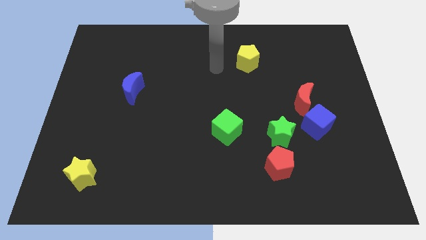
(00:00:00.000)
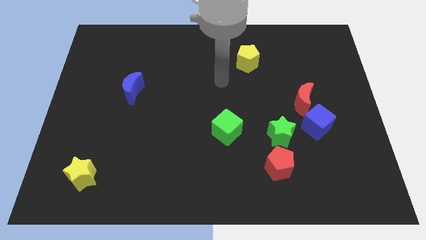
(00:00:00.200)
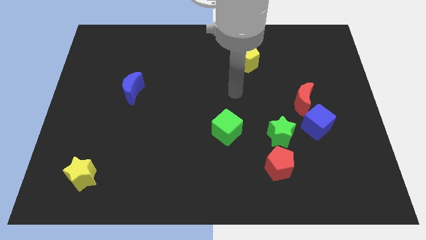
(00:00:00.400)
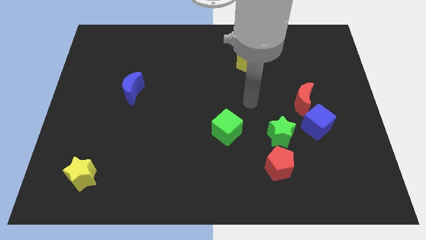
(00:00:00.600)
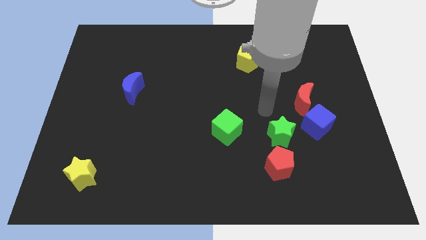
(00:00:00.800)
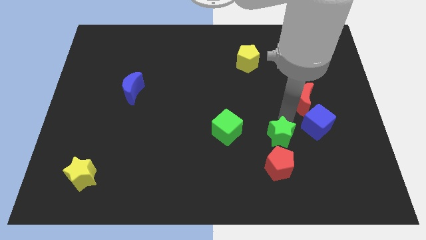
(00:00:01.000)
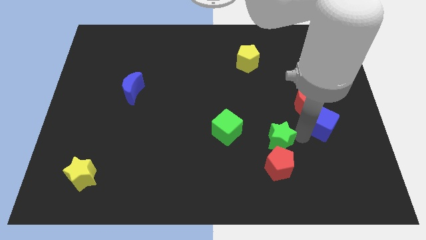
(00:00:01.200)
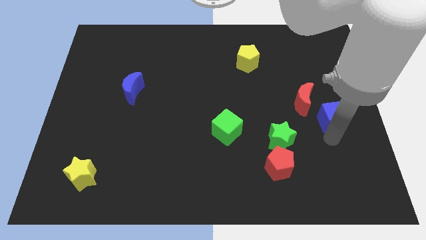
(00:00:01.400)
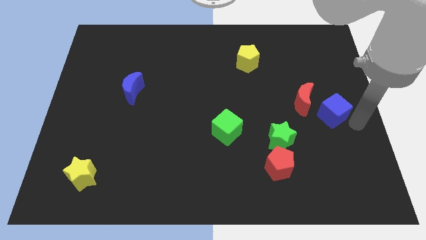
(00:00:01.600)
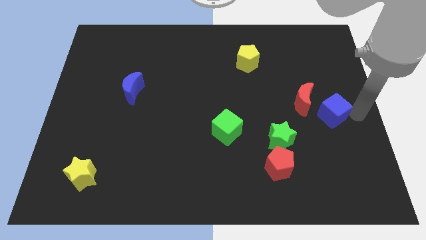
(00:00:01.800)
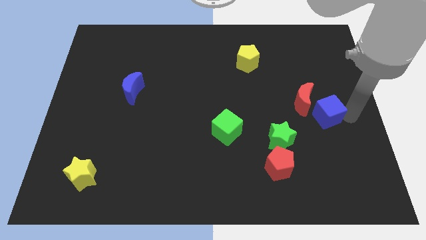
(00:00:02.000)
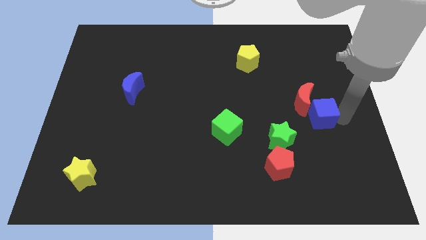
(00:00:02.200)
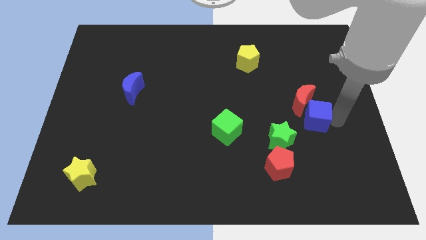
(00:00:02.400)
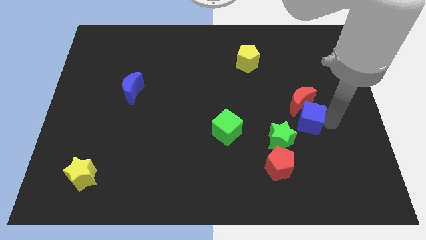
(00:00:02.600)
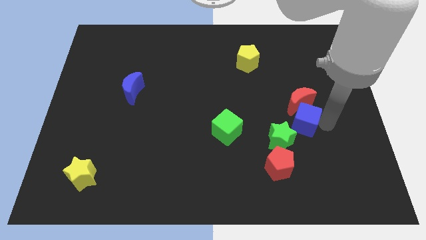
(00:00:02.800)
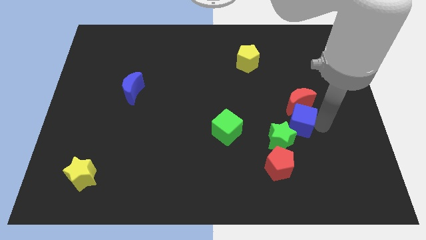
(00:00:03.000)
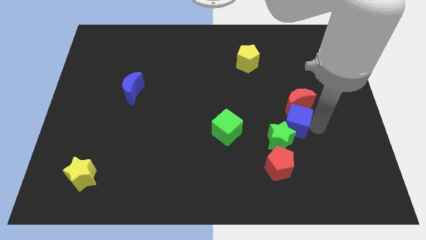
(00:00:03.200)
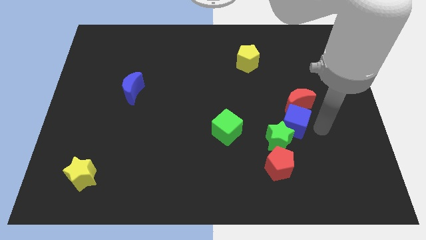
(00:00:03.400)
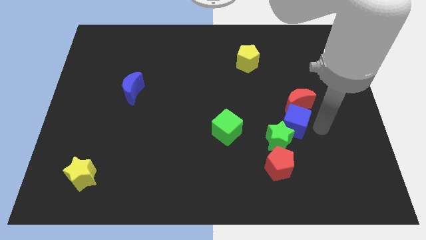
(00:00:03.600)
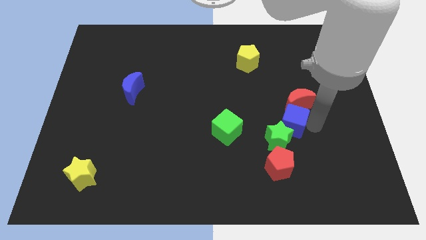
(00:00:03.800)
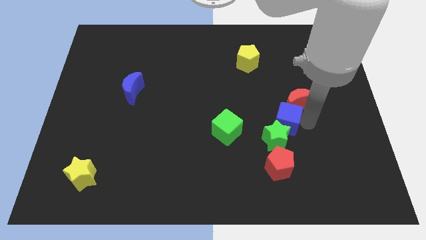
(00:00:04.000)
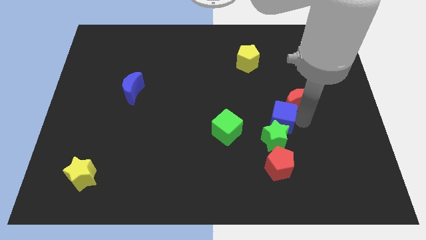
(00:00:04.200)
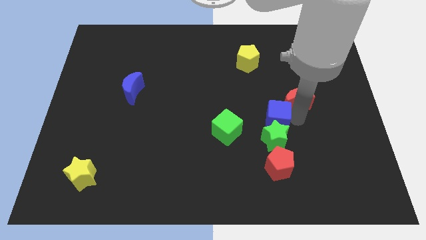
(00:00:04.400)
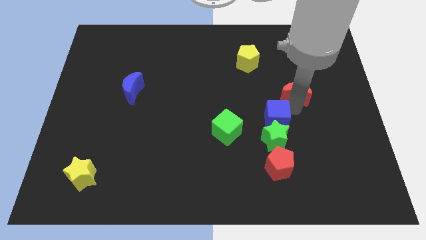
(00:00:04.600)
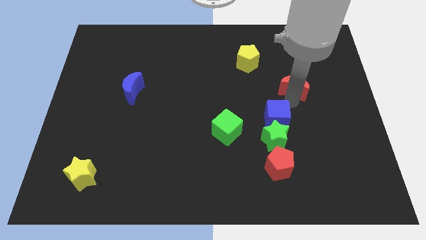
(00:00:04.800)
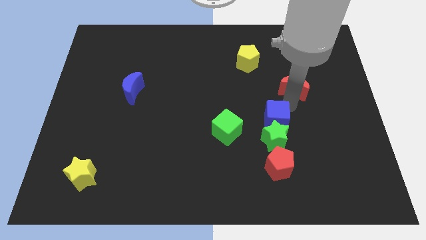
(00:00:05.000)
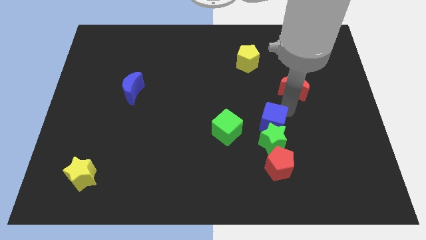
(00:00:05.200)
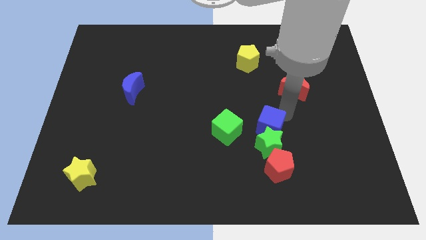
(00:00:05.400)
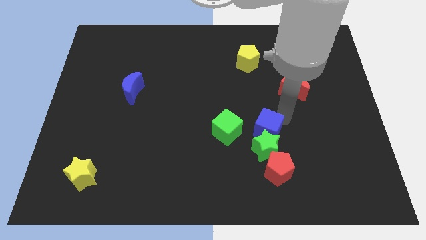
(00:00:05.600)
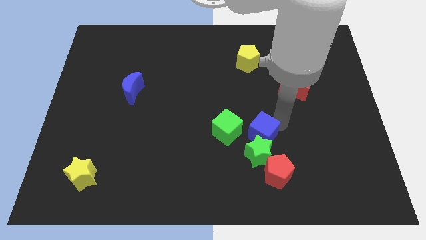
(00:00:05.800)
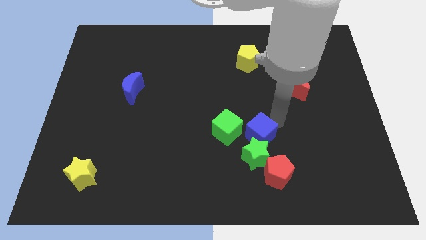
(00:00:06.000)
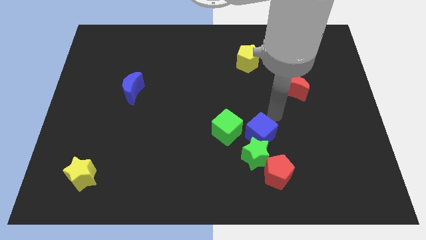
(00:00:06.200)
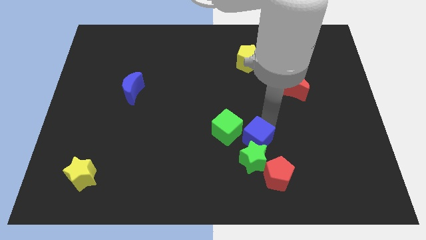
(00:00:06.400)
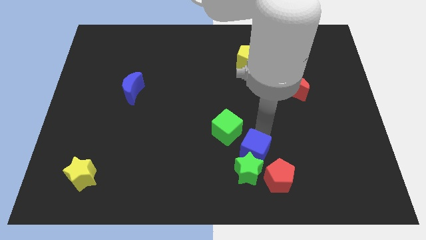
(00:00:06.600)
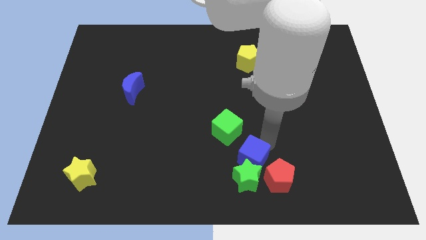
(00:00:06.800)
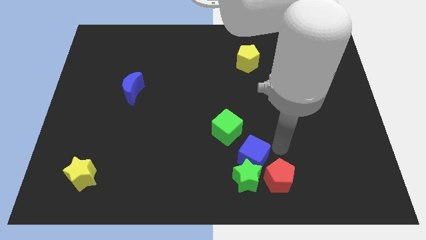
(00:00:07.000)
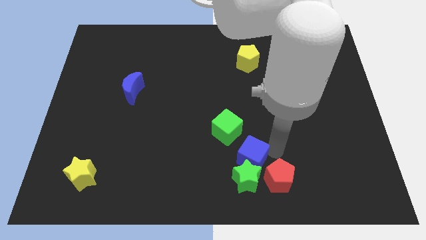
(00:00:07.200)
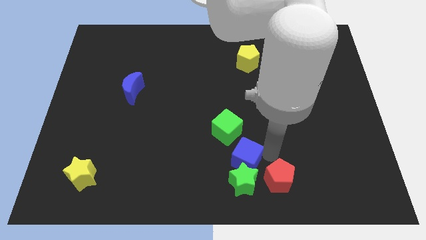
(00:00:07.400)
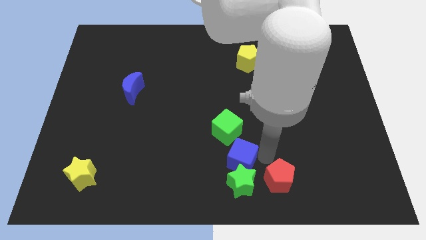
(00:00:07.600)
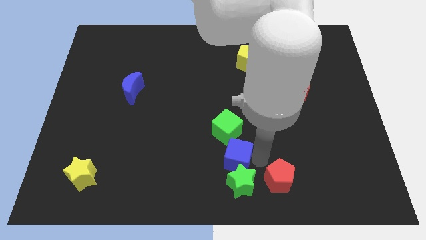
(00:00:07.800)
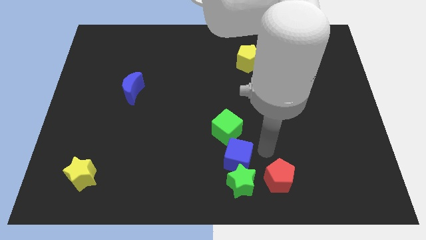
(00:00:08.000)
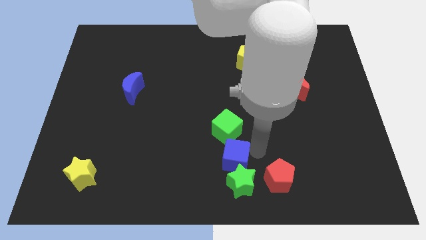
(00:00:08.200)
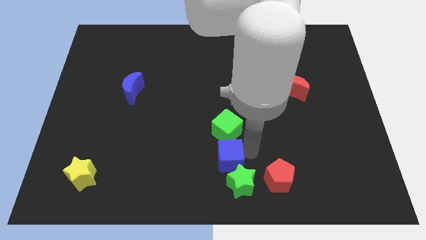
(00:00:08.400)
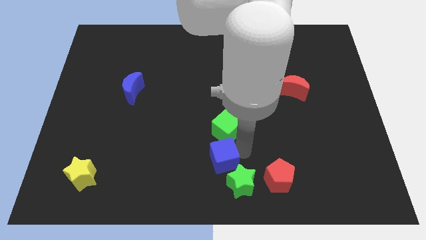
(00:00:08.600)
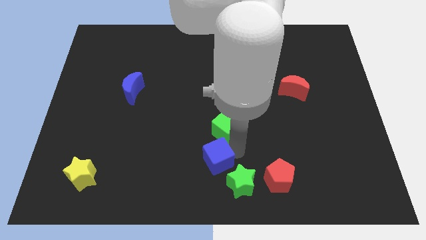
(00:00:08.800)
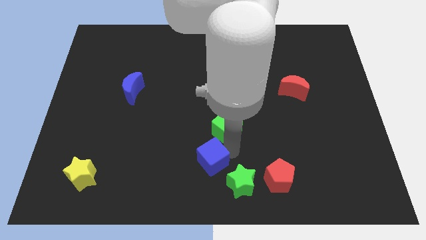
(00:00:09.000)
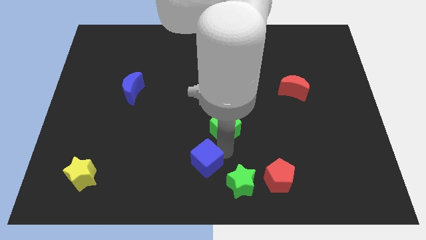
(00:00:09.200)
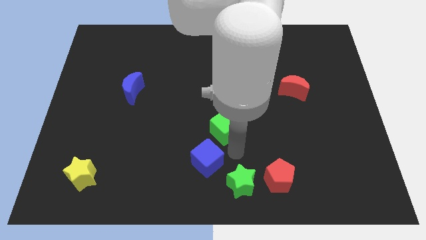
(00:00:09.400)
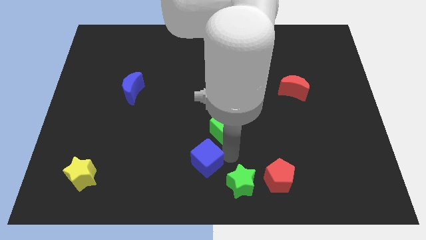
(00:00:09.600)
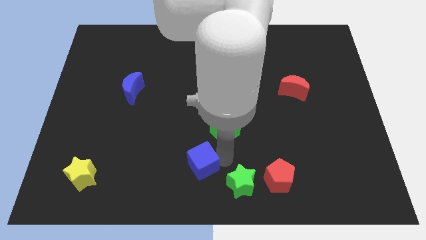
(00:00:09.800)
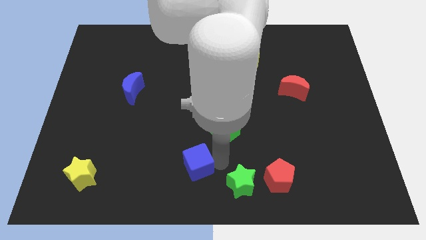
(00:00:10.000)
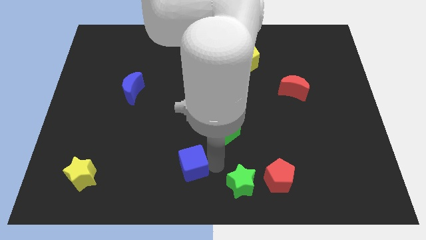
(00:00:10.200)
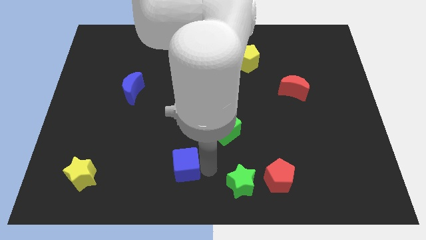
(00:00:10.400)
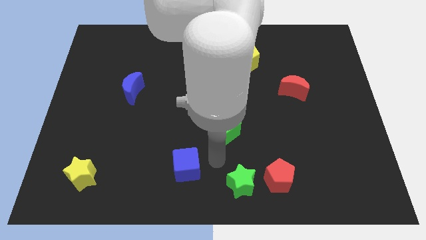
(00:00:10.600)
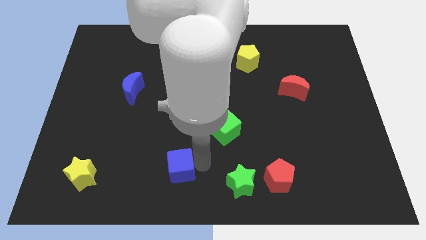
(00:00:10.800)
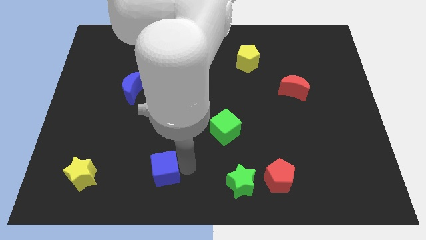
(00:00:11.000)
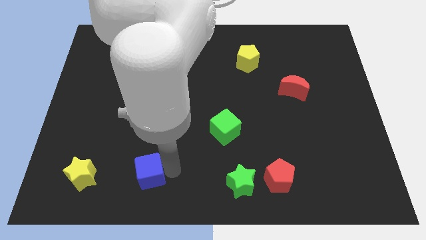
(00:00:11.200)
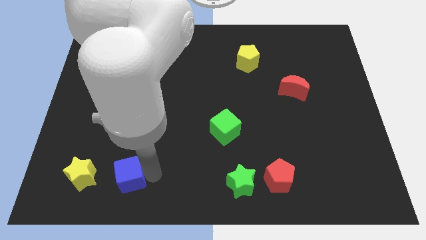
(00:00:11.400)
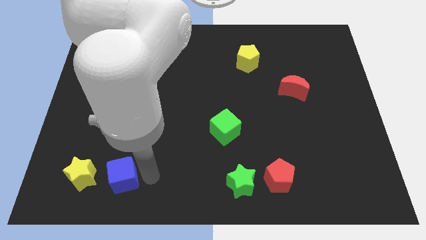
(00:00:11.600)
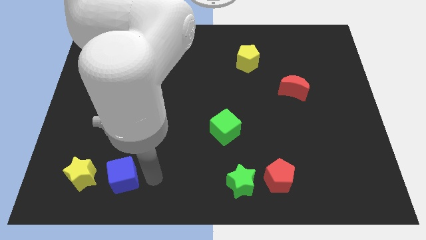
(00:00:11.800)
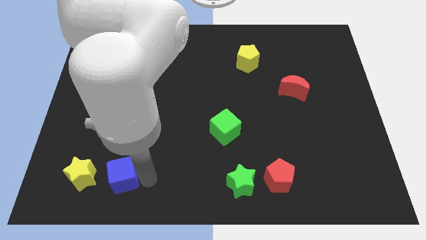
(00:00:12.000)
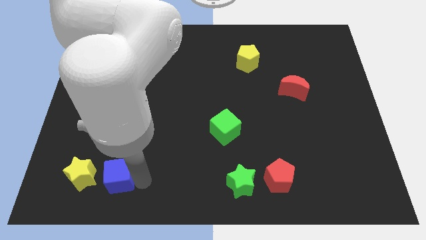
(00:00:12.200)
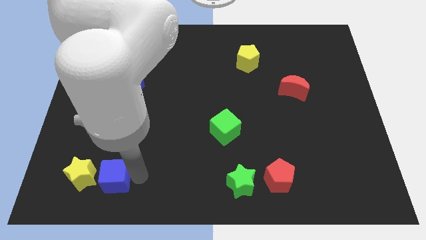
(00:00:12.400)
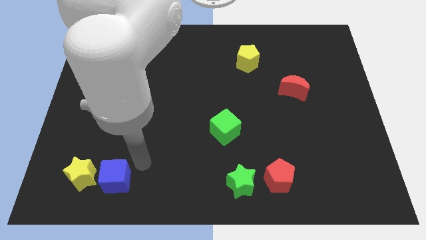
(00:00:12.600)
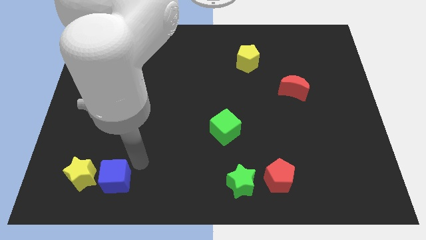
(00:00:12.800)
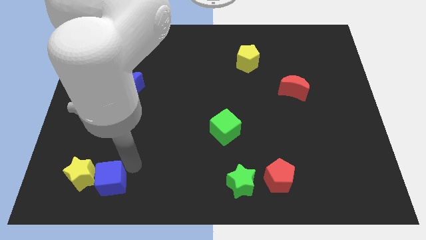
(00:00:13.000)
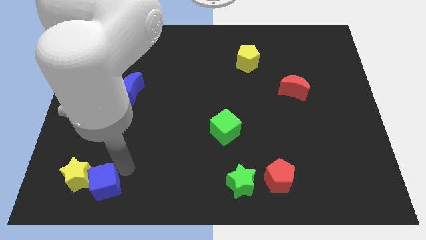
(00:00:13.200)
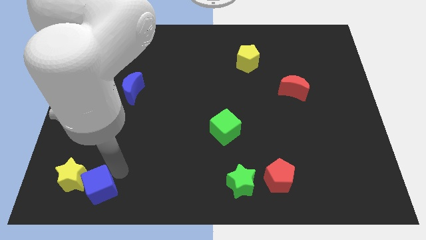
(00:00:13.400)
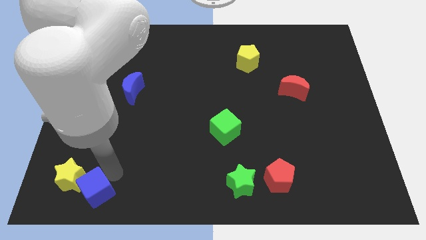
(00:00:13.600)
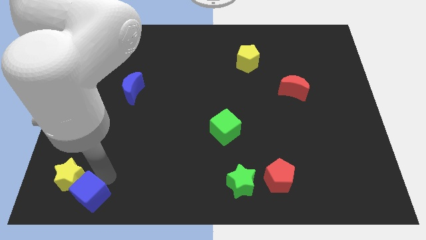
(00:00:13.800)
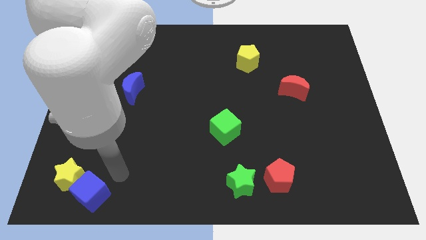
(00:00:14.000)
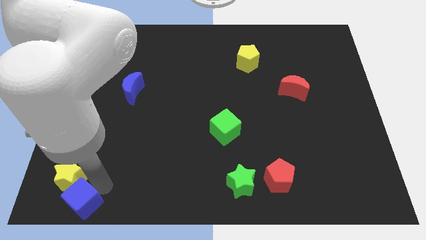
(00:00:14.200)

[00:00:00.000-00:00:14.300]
slide the blue cube to the bottom left of the board
